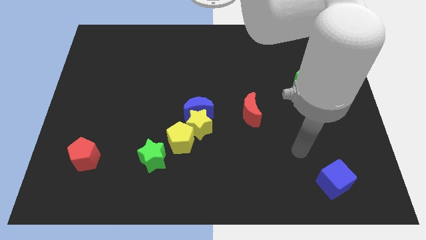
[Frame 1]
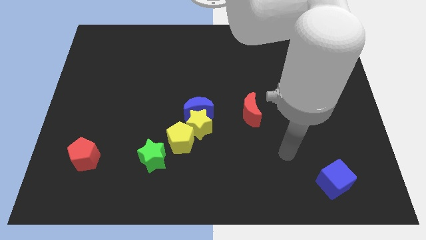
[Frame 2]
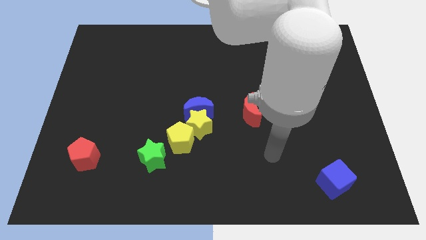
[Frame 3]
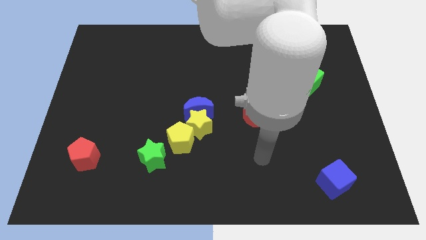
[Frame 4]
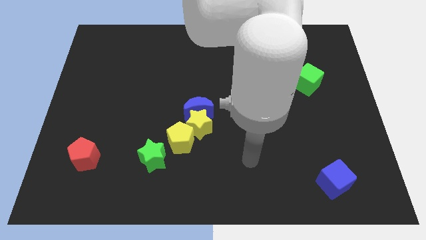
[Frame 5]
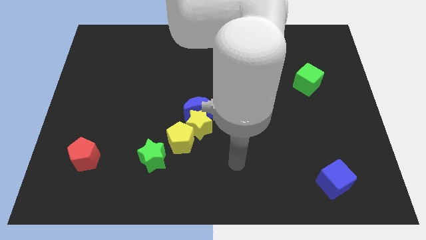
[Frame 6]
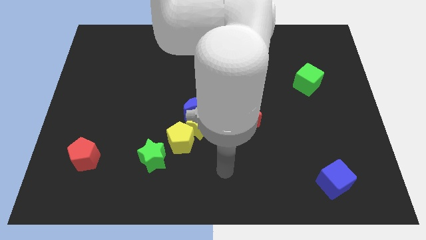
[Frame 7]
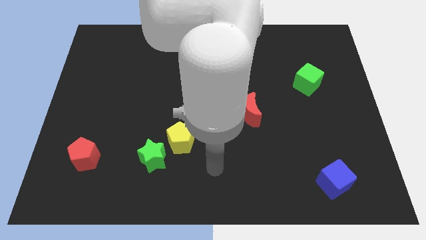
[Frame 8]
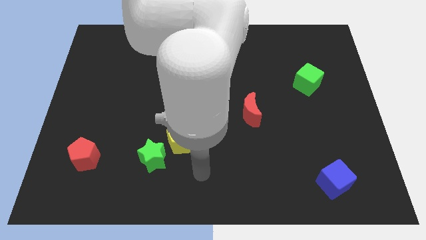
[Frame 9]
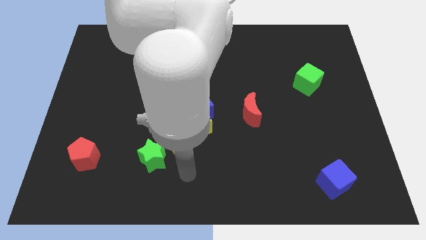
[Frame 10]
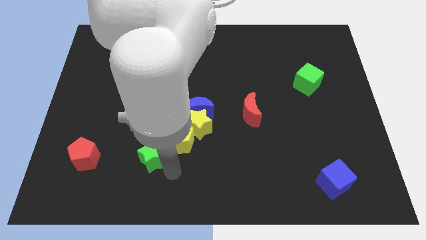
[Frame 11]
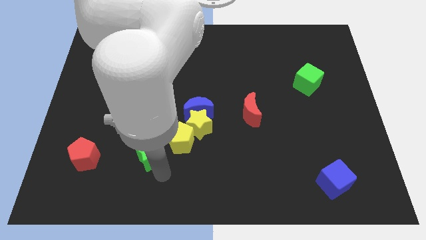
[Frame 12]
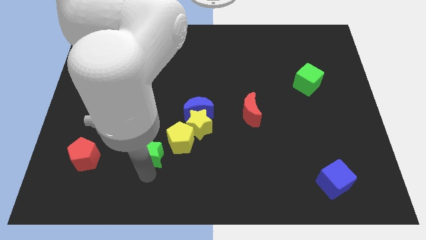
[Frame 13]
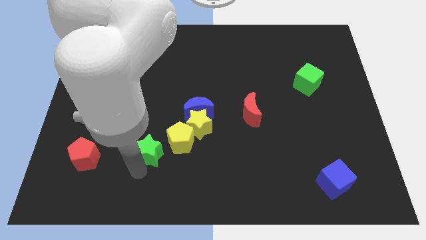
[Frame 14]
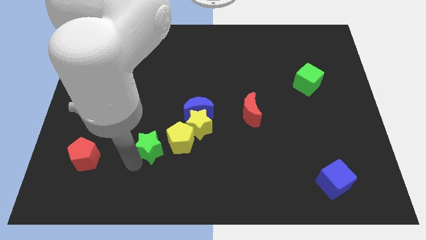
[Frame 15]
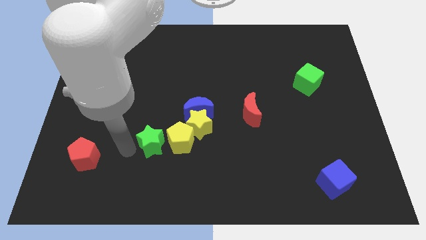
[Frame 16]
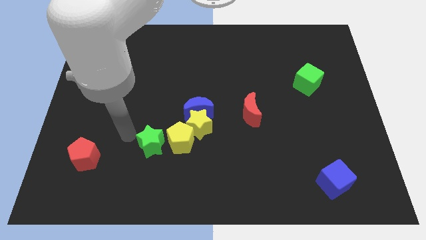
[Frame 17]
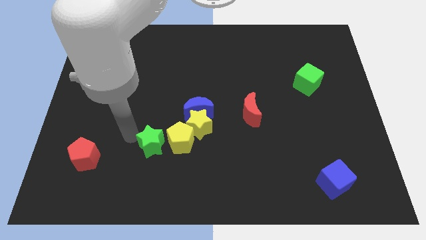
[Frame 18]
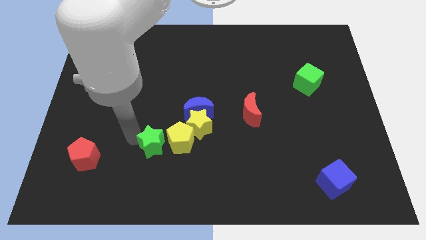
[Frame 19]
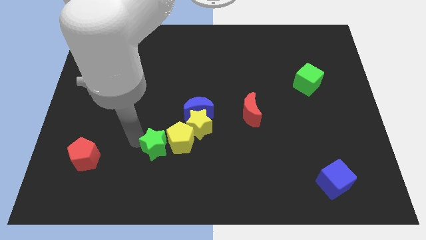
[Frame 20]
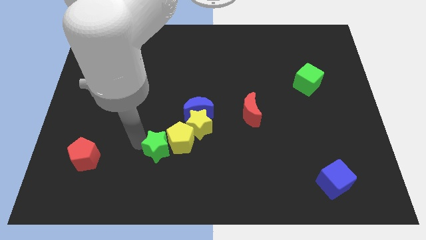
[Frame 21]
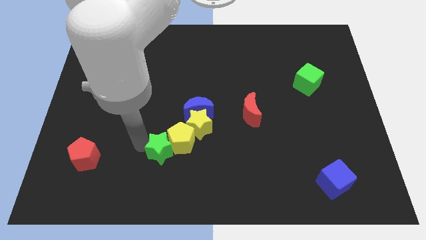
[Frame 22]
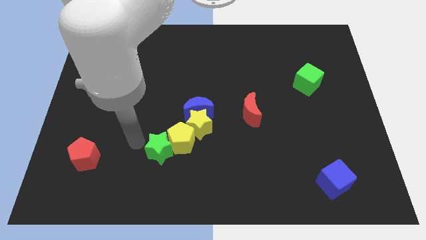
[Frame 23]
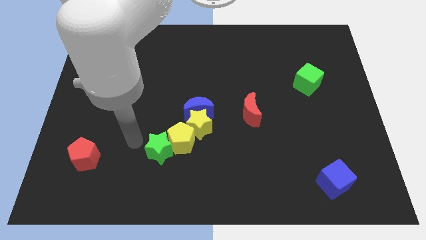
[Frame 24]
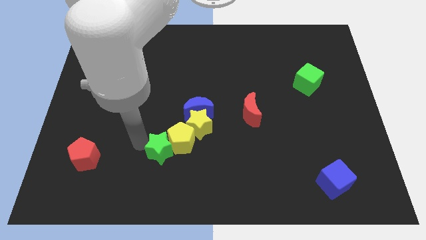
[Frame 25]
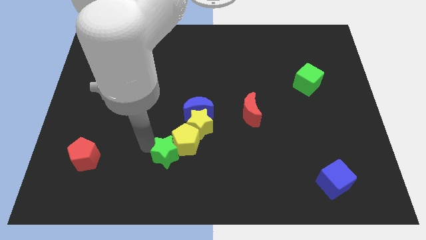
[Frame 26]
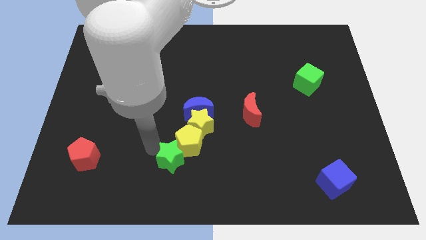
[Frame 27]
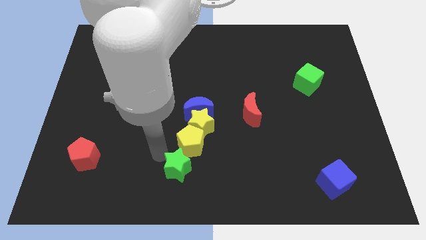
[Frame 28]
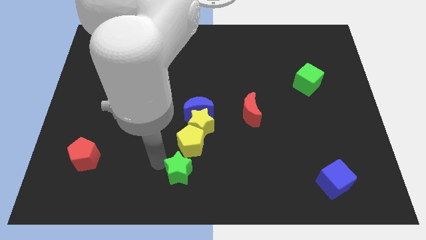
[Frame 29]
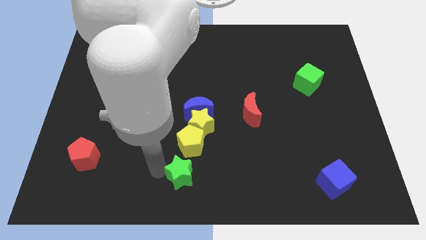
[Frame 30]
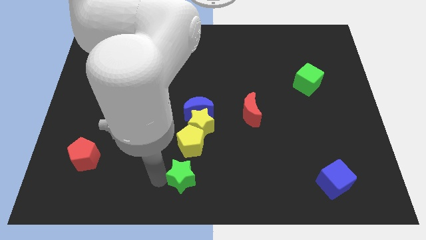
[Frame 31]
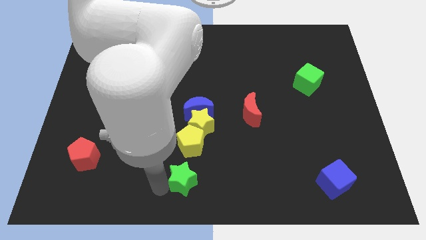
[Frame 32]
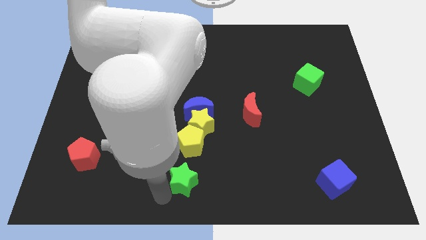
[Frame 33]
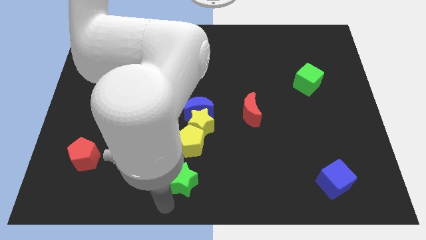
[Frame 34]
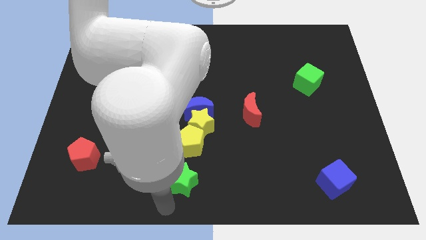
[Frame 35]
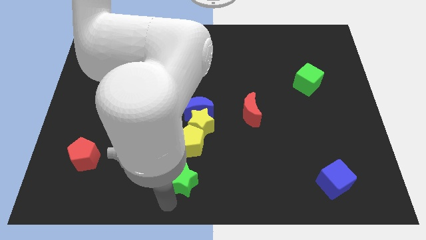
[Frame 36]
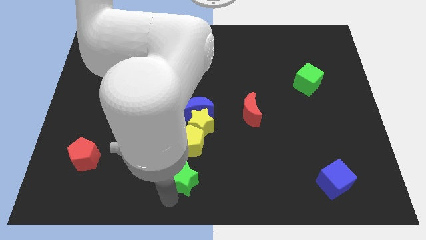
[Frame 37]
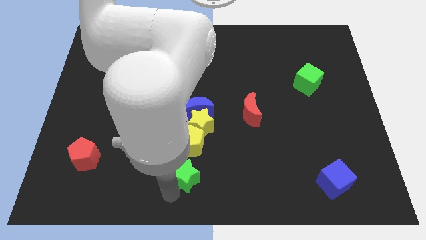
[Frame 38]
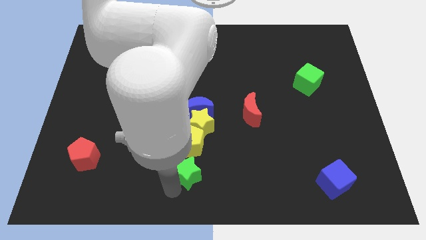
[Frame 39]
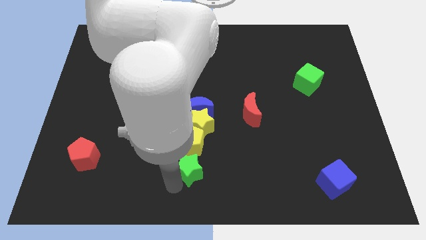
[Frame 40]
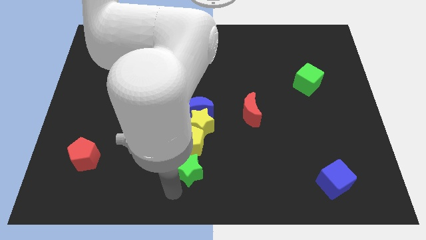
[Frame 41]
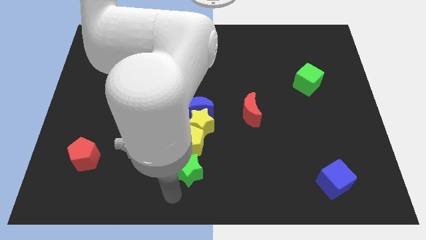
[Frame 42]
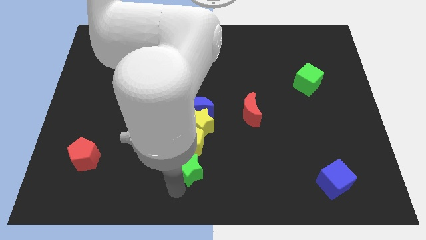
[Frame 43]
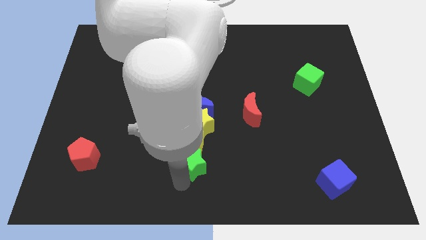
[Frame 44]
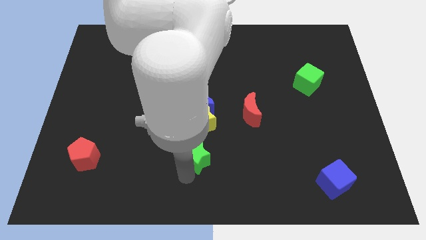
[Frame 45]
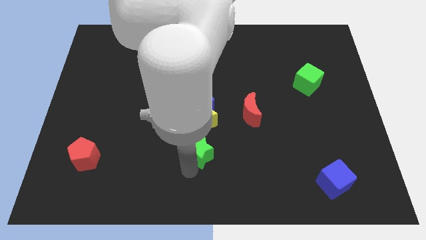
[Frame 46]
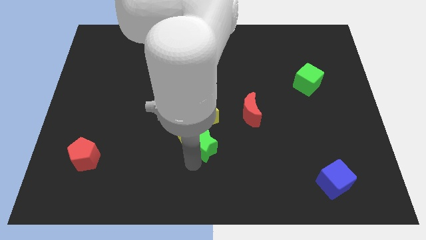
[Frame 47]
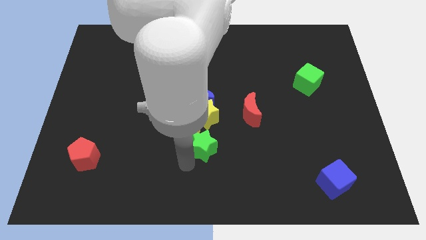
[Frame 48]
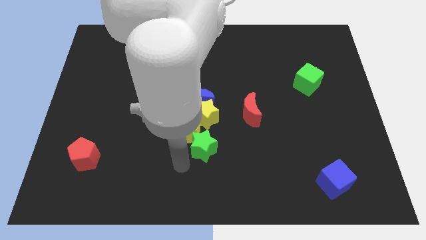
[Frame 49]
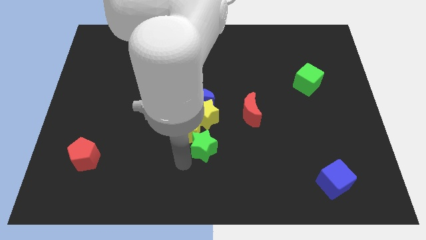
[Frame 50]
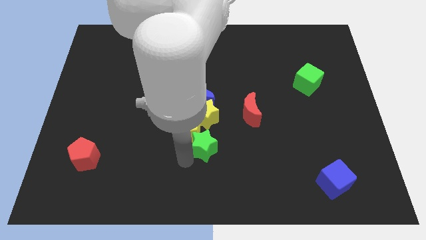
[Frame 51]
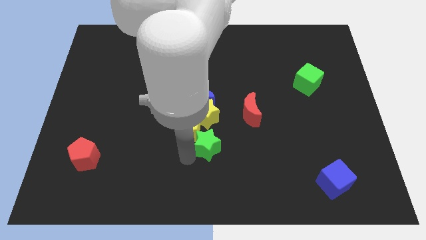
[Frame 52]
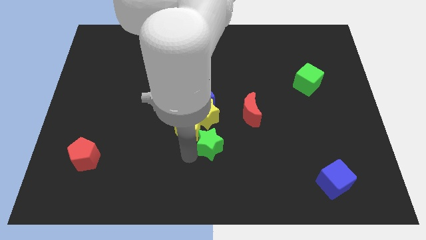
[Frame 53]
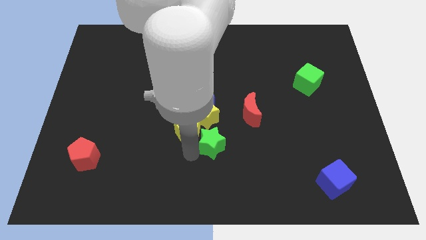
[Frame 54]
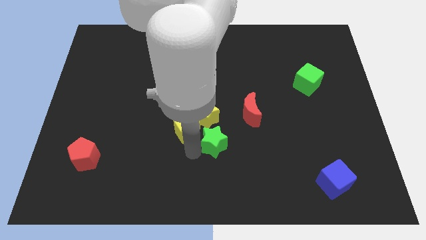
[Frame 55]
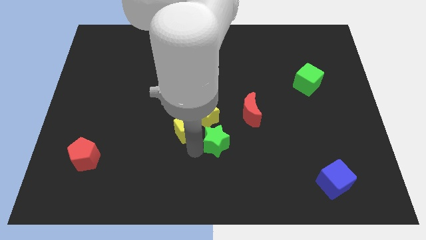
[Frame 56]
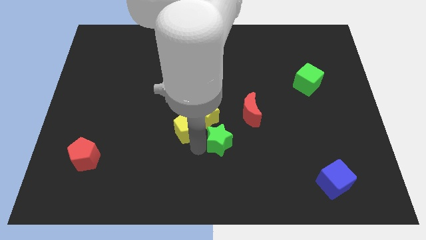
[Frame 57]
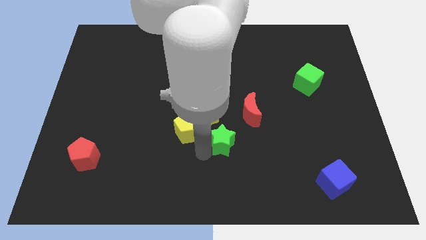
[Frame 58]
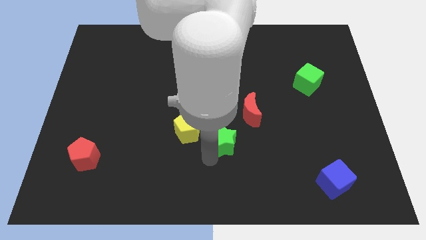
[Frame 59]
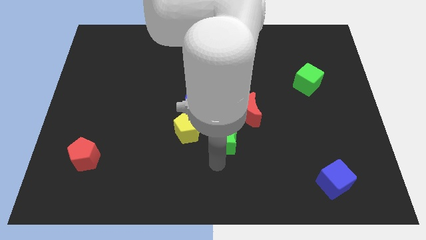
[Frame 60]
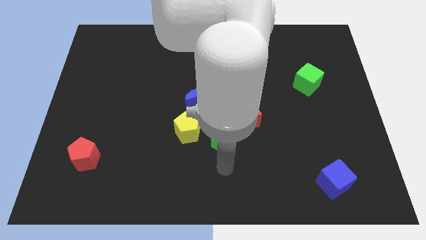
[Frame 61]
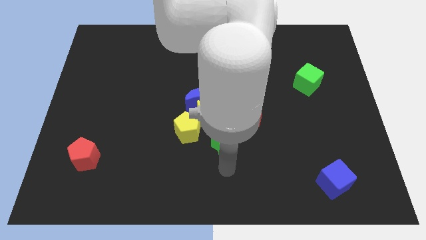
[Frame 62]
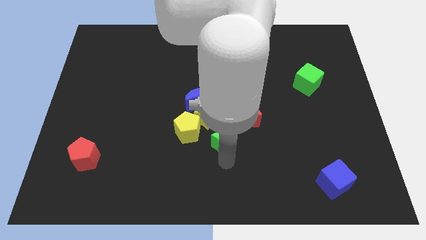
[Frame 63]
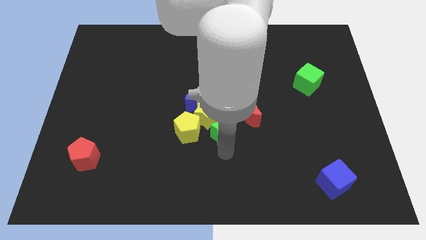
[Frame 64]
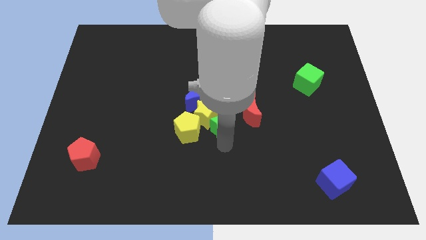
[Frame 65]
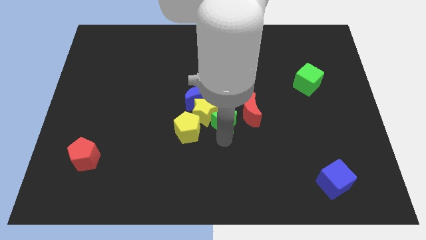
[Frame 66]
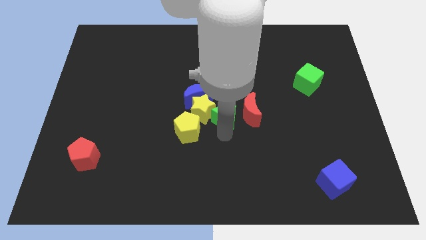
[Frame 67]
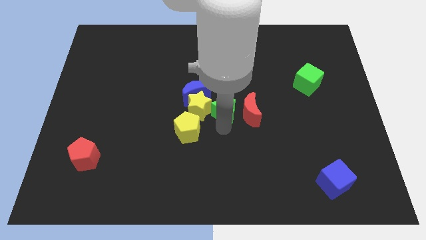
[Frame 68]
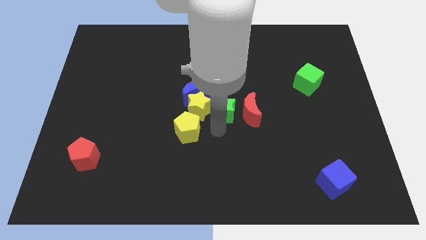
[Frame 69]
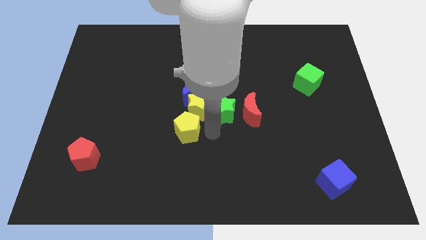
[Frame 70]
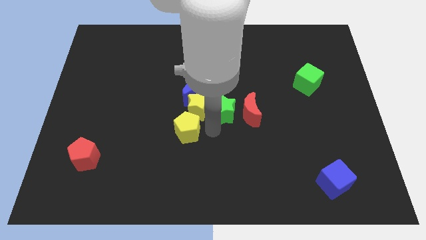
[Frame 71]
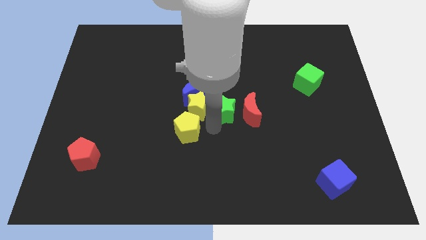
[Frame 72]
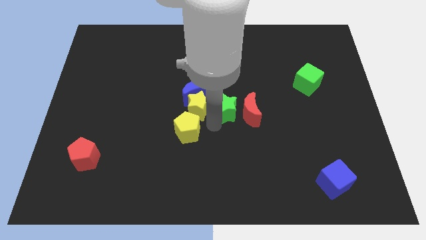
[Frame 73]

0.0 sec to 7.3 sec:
push the green star up and right diagonally

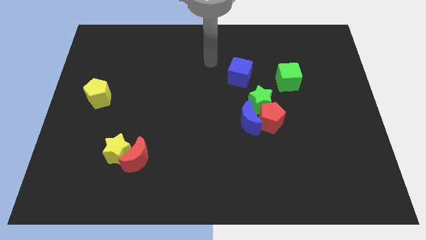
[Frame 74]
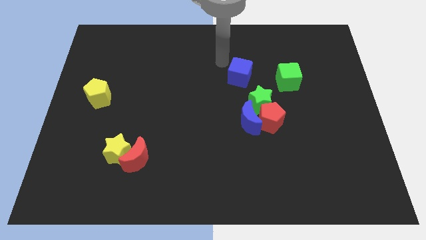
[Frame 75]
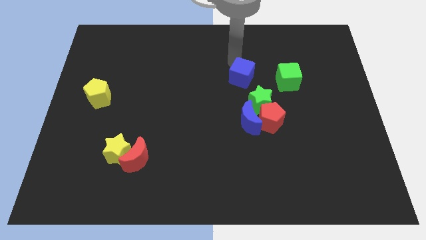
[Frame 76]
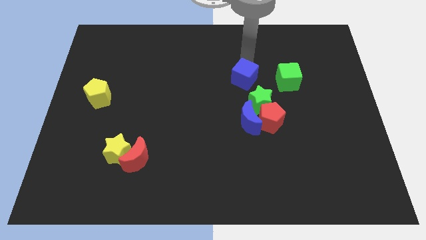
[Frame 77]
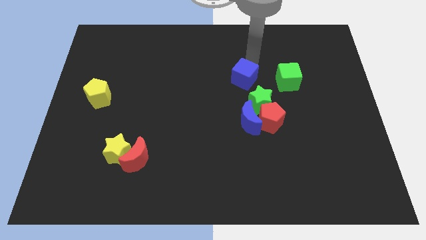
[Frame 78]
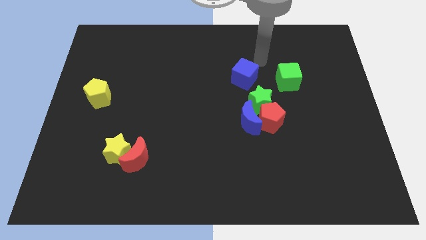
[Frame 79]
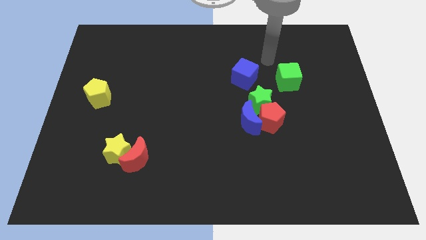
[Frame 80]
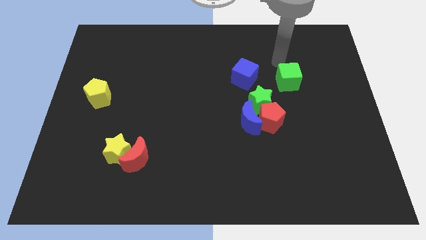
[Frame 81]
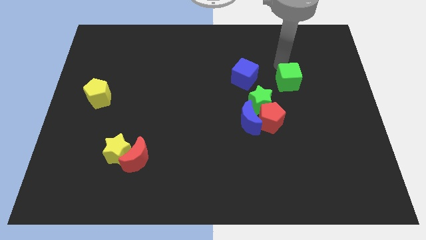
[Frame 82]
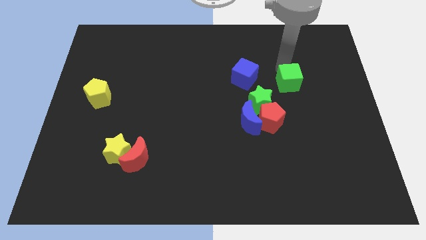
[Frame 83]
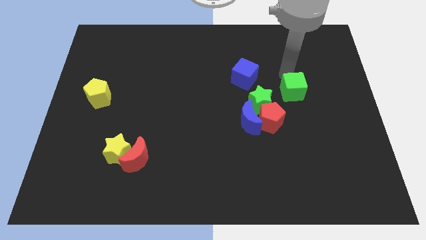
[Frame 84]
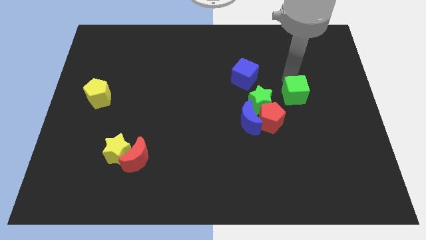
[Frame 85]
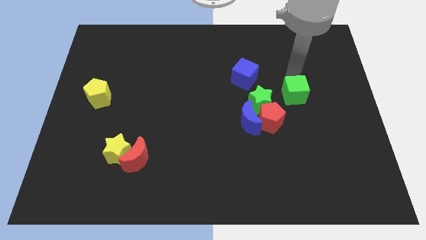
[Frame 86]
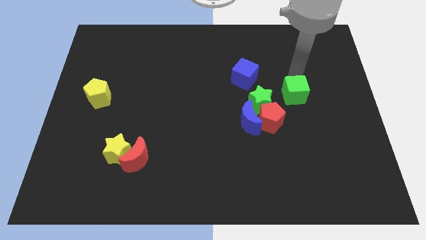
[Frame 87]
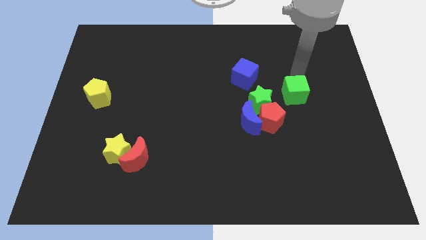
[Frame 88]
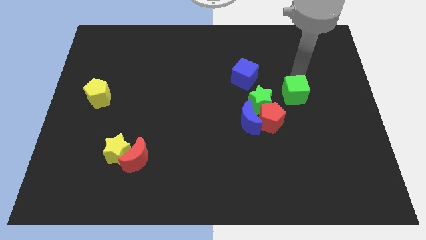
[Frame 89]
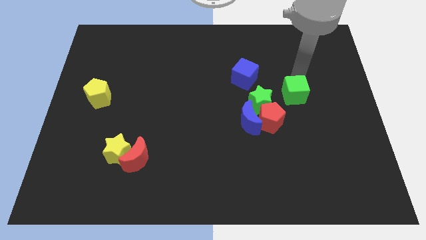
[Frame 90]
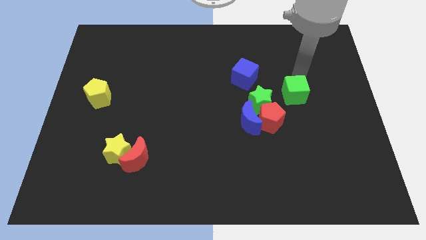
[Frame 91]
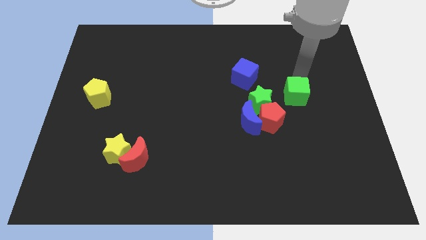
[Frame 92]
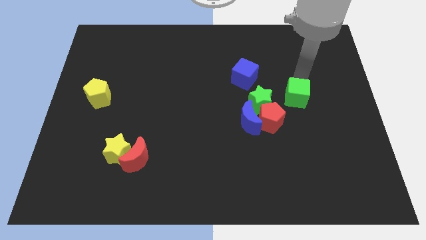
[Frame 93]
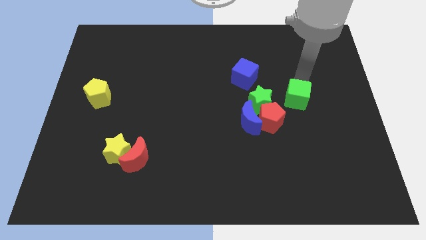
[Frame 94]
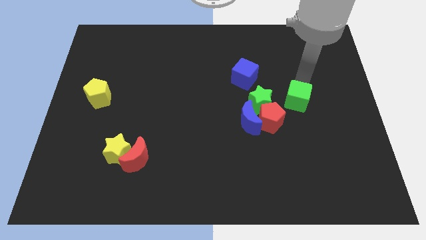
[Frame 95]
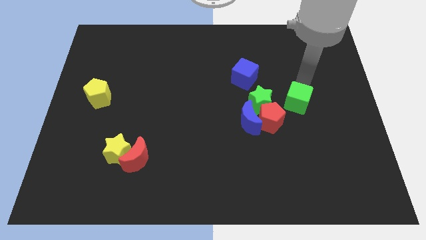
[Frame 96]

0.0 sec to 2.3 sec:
slide the green cube slightly down
